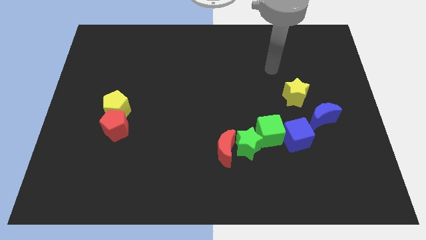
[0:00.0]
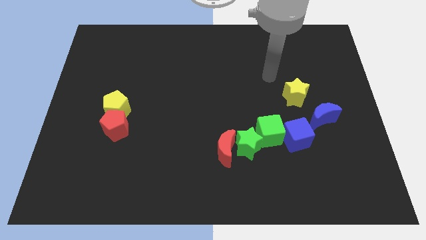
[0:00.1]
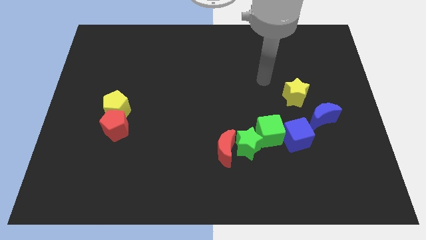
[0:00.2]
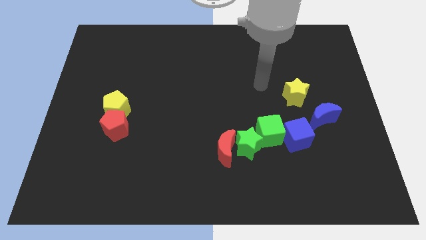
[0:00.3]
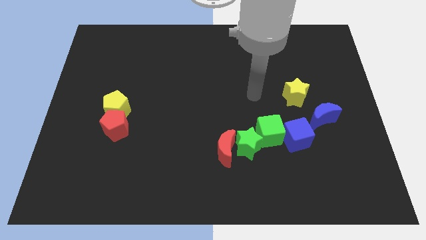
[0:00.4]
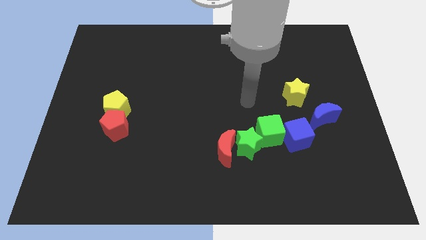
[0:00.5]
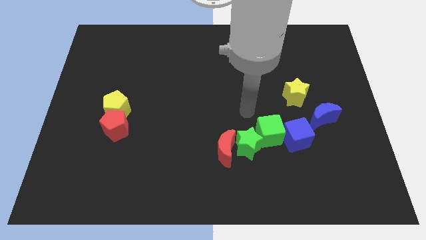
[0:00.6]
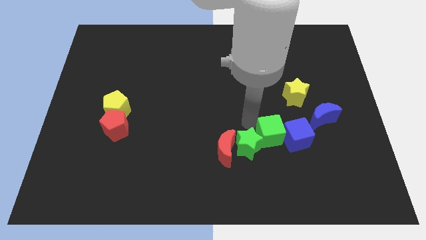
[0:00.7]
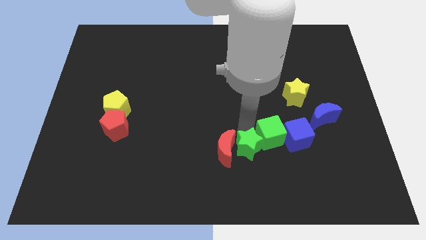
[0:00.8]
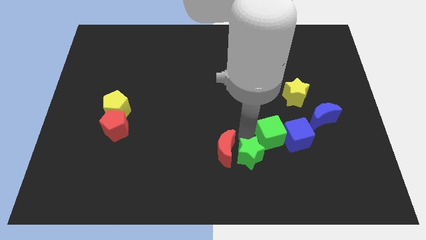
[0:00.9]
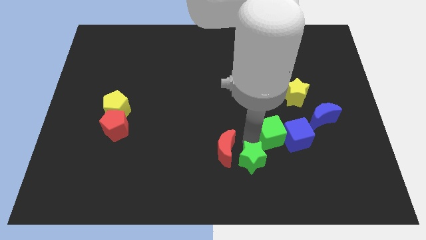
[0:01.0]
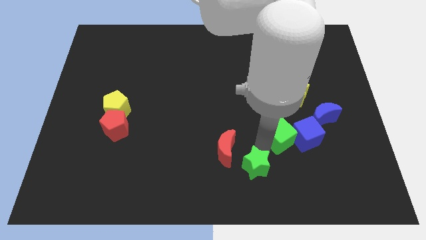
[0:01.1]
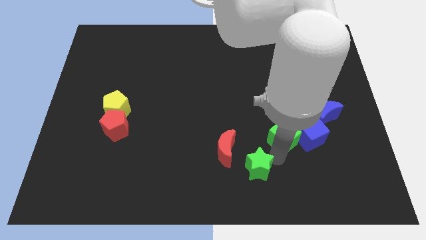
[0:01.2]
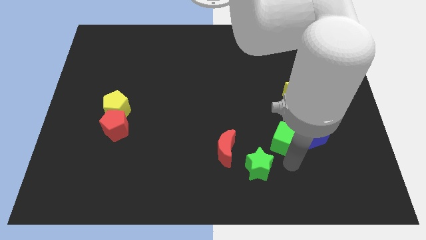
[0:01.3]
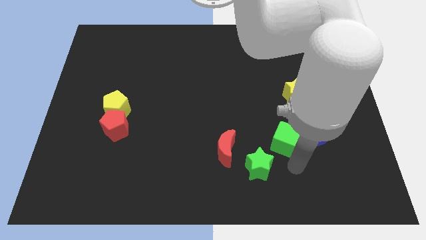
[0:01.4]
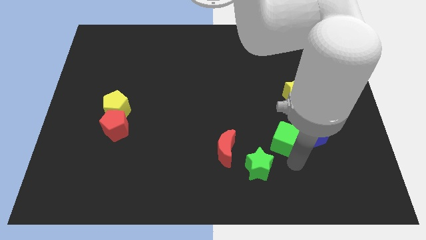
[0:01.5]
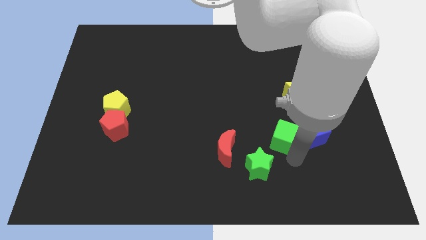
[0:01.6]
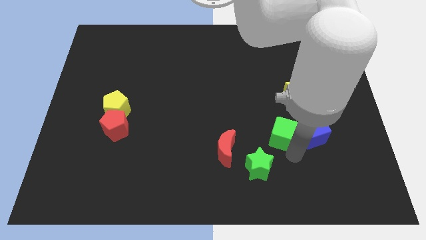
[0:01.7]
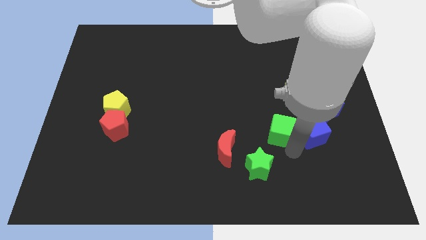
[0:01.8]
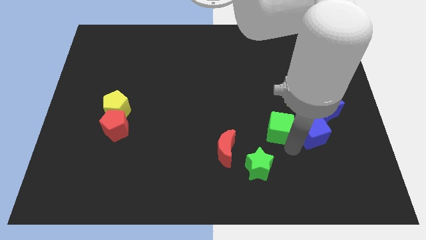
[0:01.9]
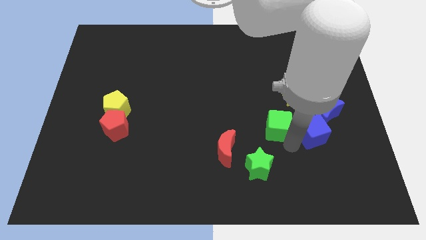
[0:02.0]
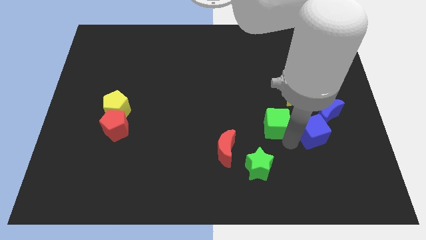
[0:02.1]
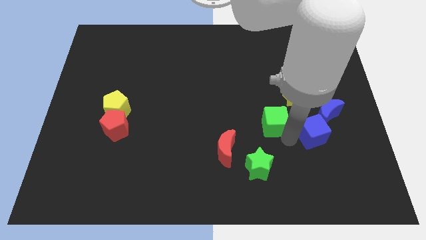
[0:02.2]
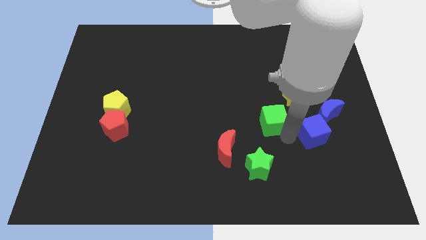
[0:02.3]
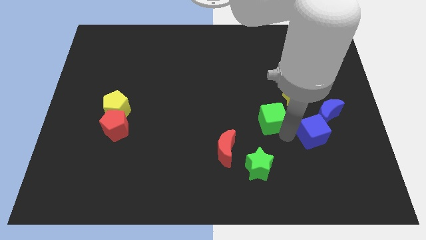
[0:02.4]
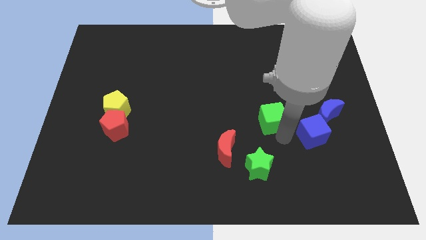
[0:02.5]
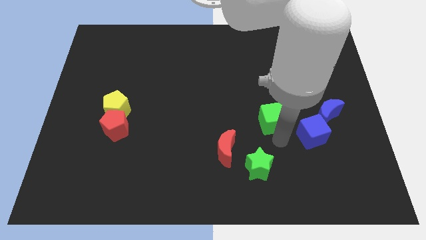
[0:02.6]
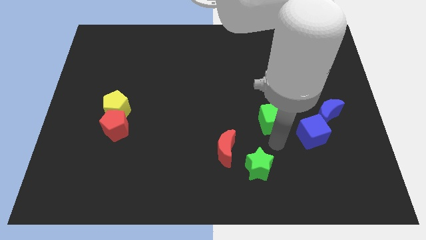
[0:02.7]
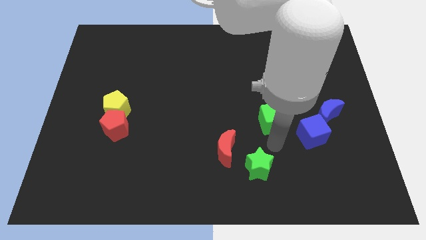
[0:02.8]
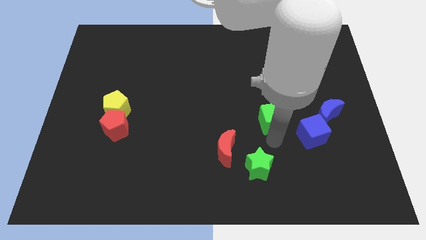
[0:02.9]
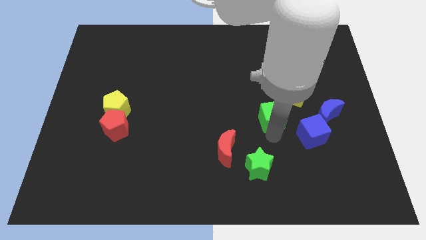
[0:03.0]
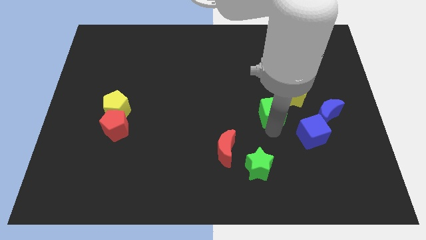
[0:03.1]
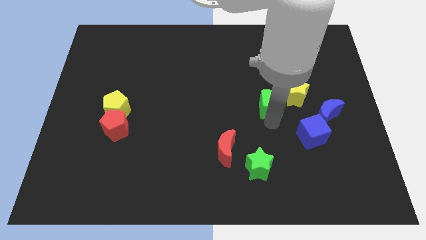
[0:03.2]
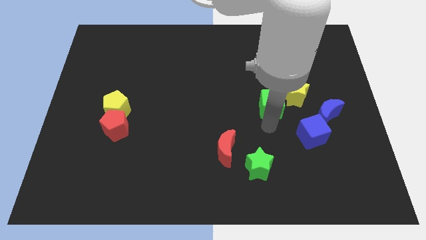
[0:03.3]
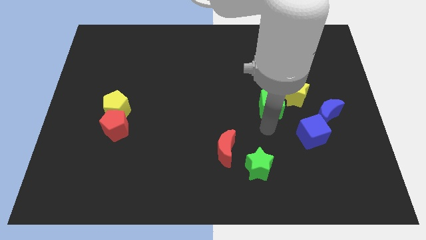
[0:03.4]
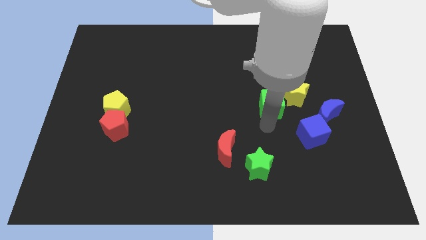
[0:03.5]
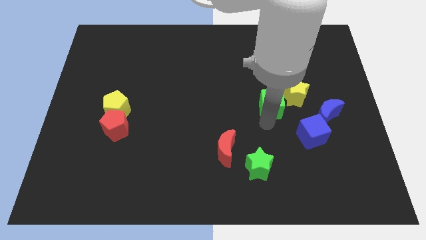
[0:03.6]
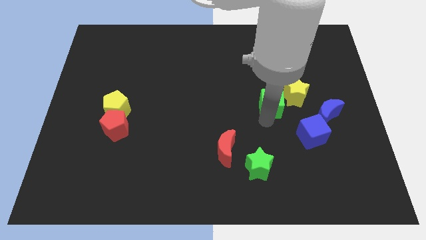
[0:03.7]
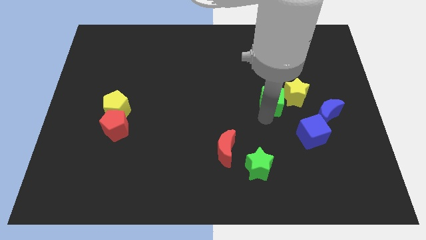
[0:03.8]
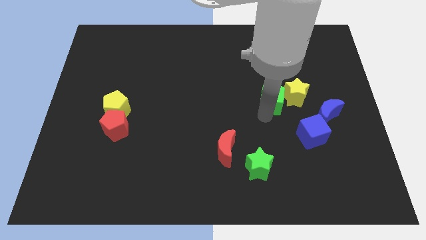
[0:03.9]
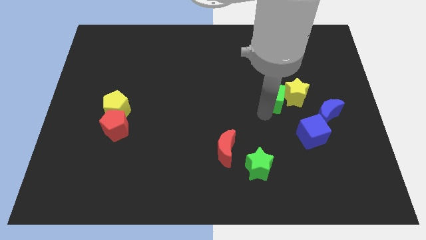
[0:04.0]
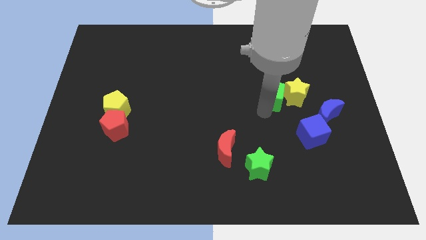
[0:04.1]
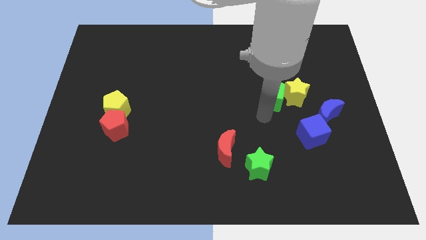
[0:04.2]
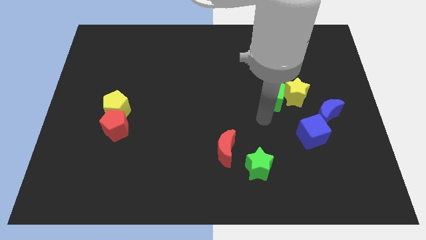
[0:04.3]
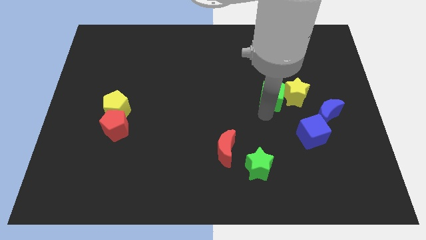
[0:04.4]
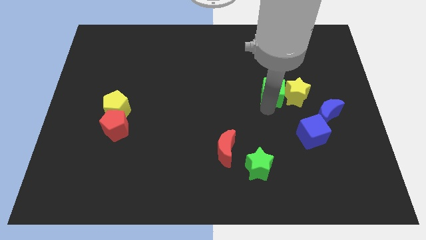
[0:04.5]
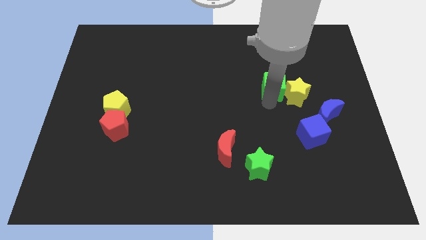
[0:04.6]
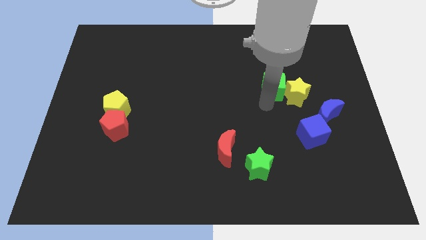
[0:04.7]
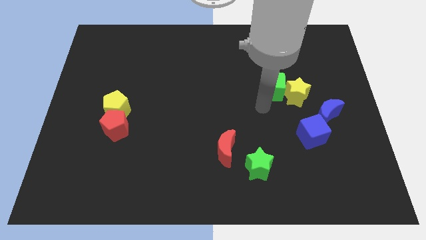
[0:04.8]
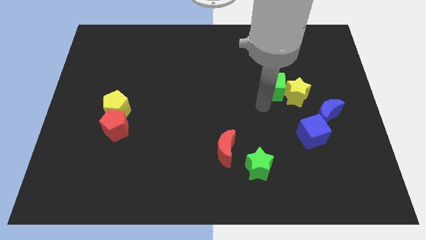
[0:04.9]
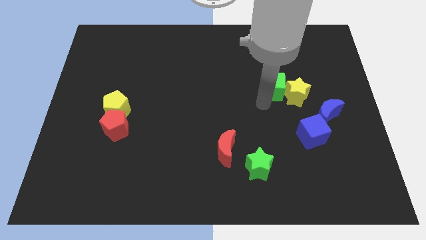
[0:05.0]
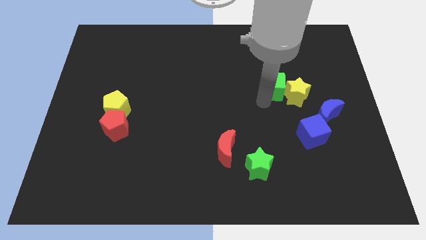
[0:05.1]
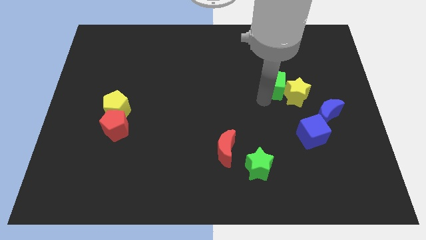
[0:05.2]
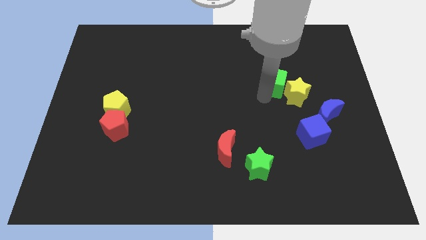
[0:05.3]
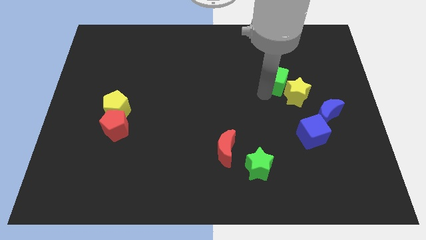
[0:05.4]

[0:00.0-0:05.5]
put the green cube above the yellow star

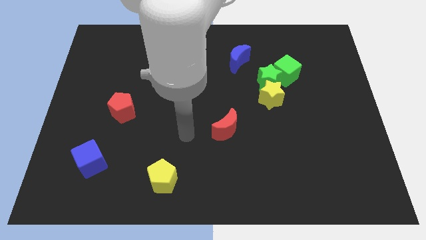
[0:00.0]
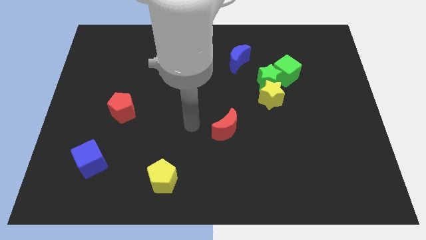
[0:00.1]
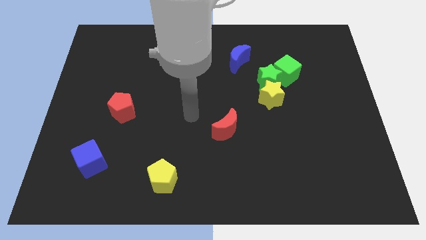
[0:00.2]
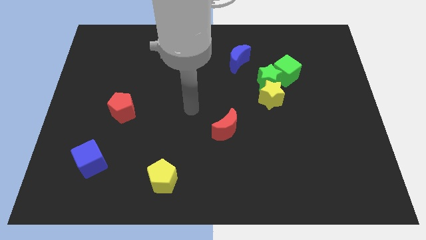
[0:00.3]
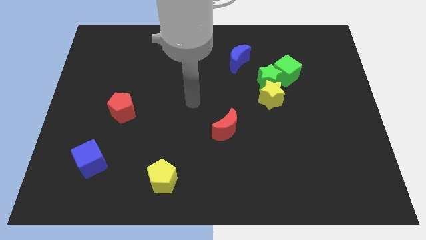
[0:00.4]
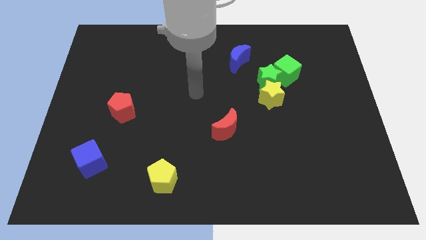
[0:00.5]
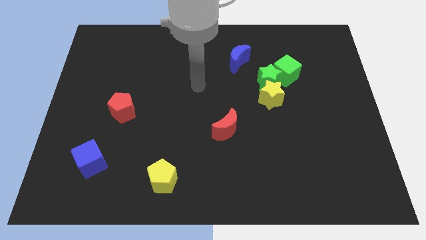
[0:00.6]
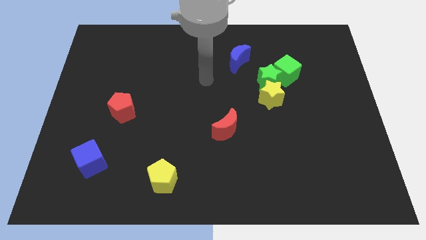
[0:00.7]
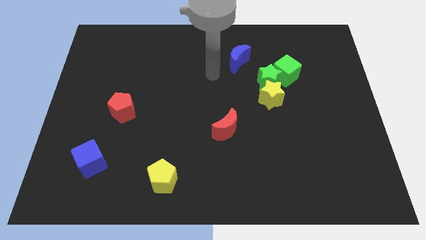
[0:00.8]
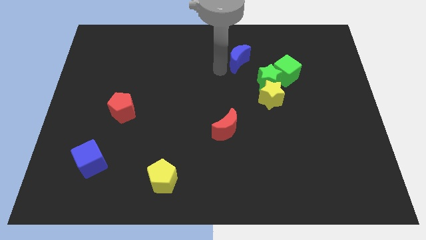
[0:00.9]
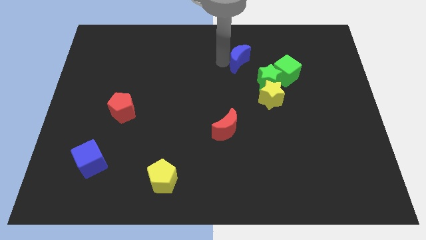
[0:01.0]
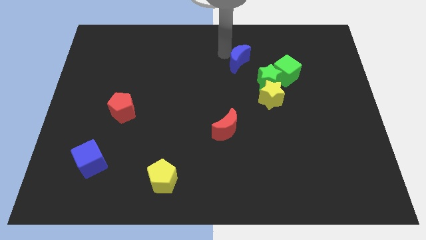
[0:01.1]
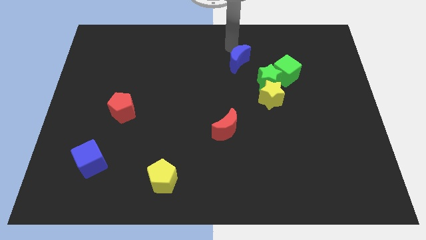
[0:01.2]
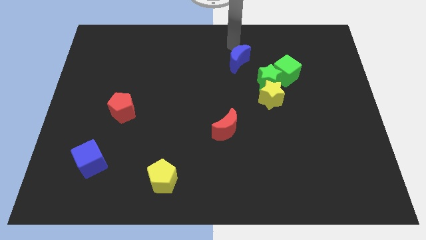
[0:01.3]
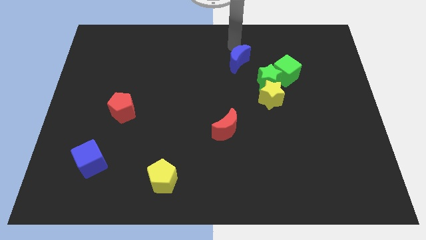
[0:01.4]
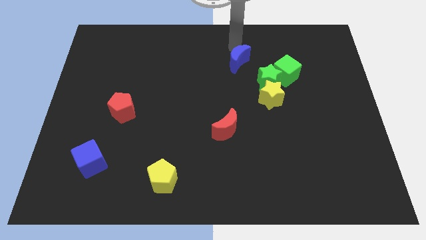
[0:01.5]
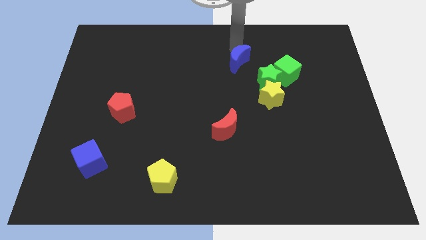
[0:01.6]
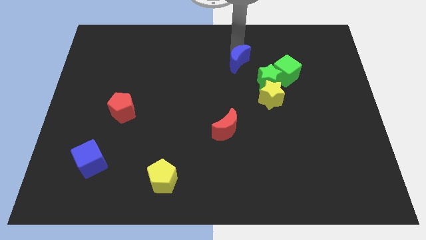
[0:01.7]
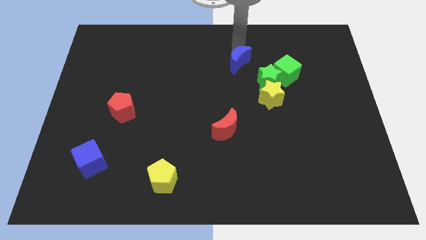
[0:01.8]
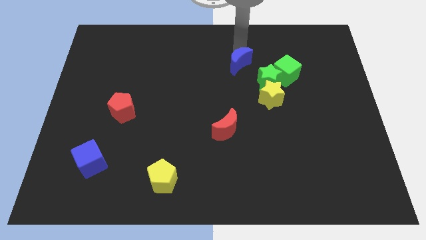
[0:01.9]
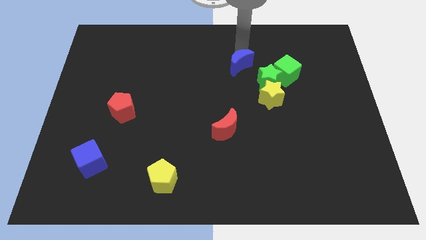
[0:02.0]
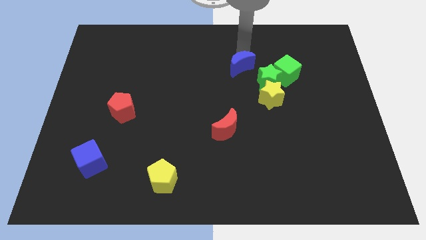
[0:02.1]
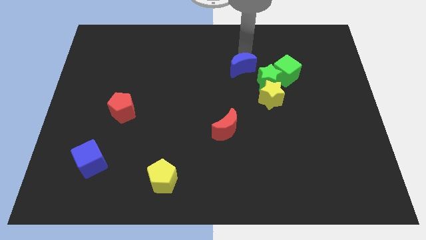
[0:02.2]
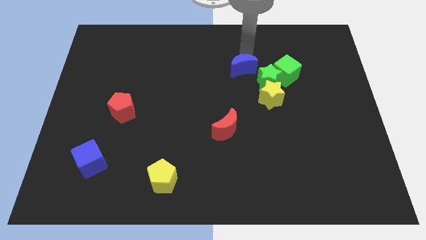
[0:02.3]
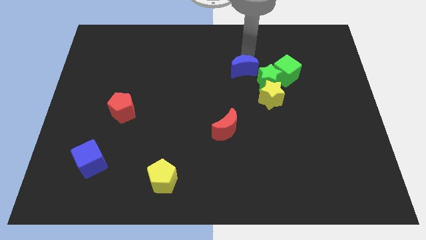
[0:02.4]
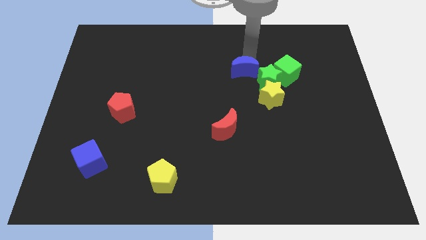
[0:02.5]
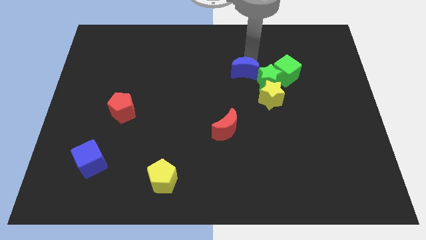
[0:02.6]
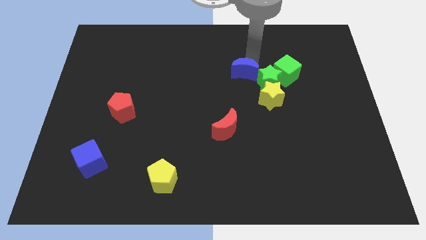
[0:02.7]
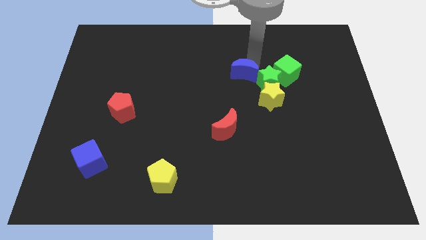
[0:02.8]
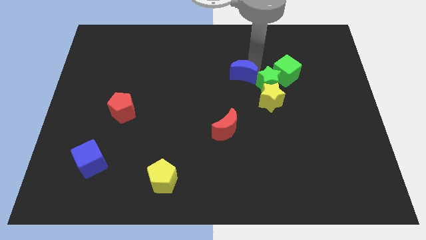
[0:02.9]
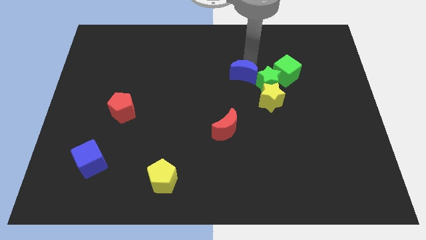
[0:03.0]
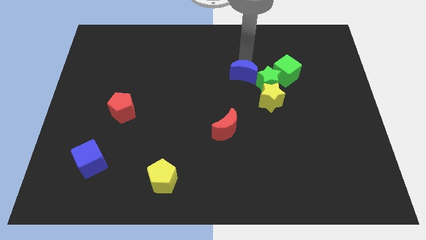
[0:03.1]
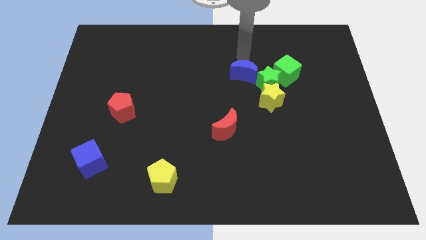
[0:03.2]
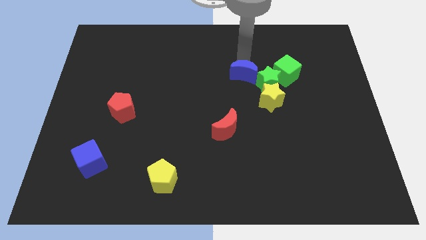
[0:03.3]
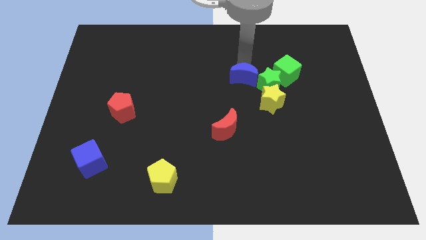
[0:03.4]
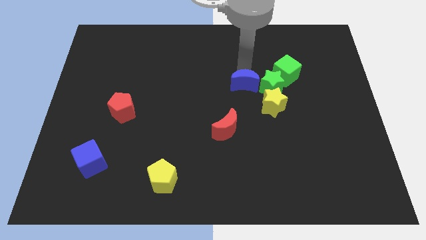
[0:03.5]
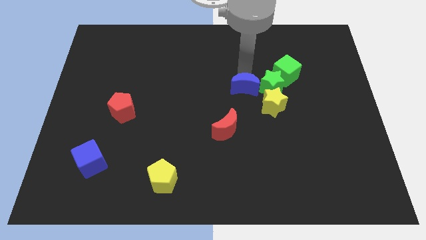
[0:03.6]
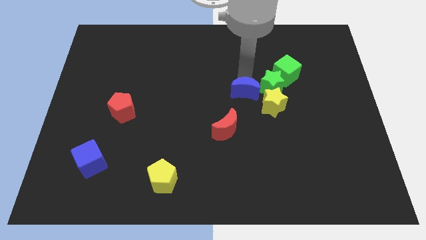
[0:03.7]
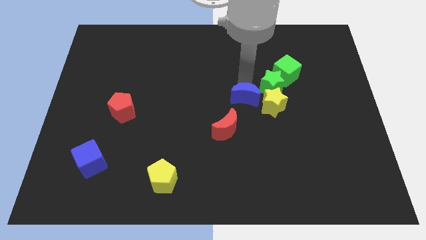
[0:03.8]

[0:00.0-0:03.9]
slide the blue moon to the top right of the red moon
